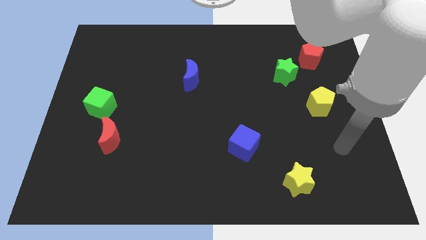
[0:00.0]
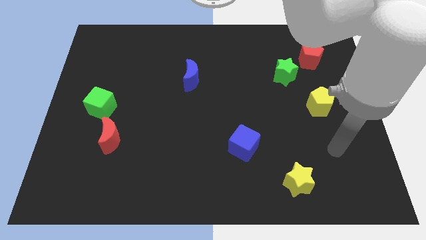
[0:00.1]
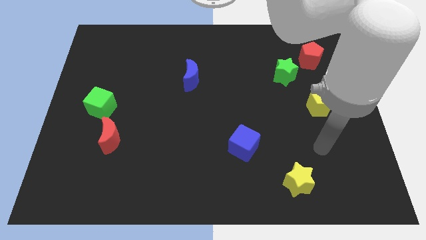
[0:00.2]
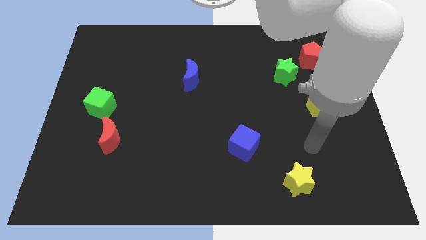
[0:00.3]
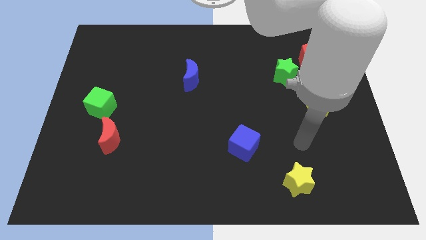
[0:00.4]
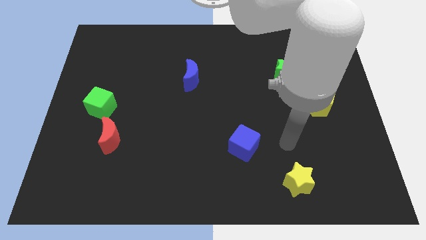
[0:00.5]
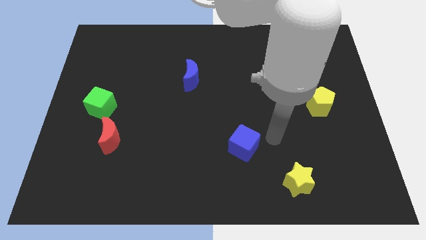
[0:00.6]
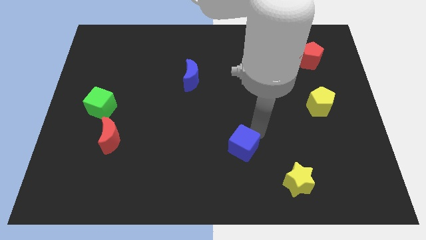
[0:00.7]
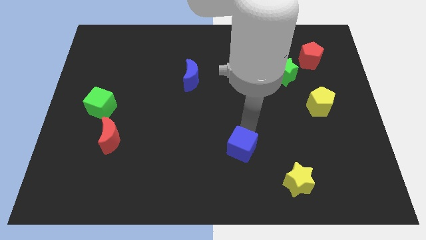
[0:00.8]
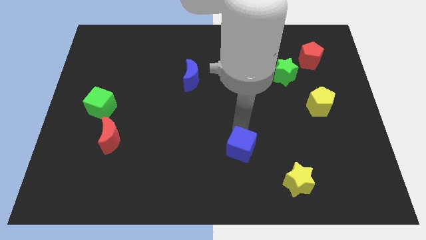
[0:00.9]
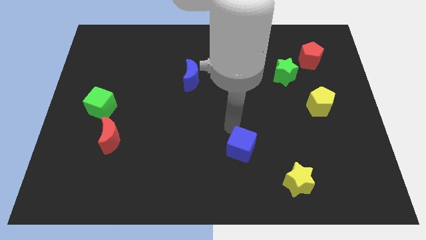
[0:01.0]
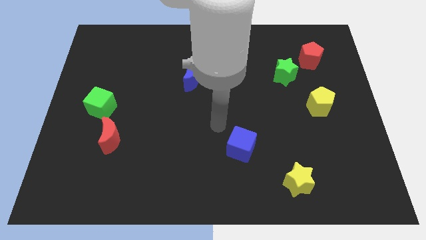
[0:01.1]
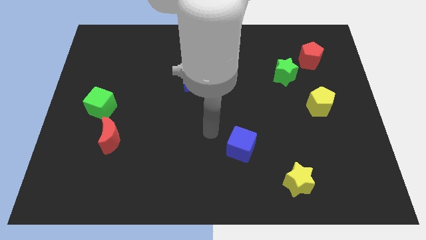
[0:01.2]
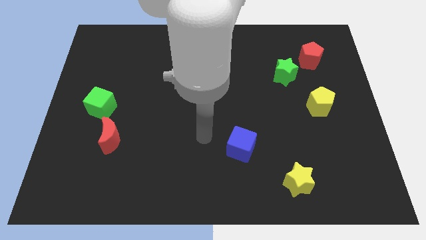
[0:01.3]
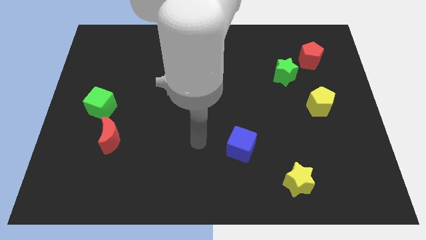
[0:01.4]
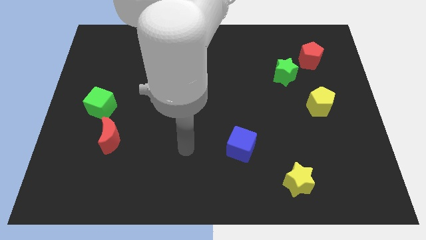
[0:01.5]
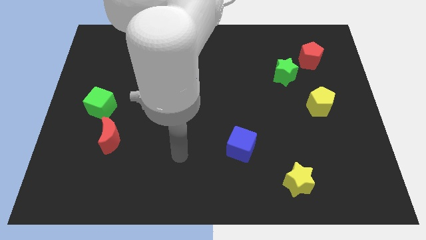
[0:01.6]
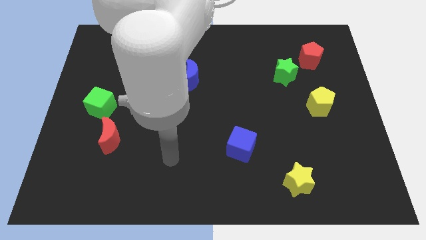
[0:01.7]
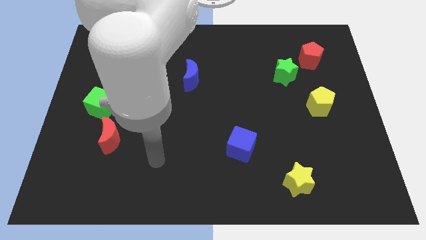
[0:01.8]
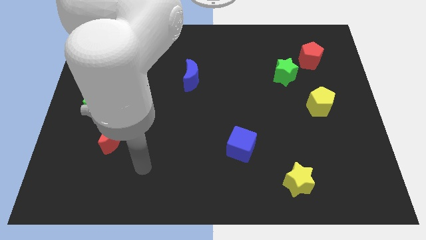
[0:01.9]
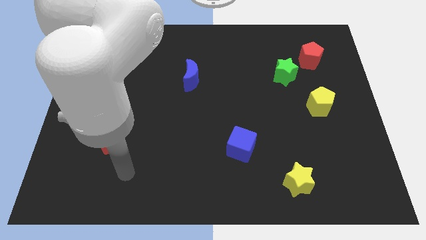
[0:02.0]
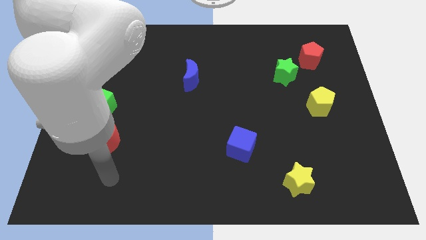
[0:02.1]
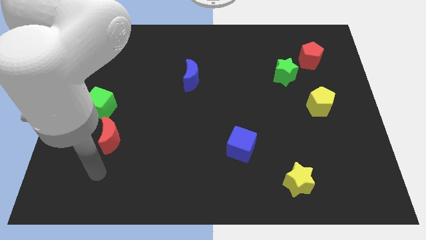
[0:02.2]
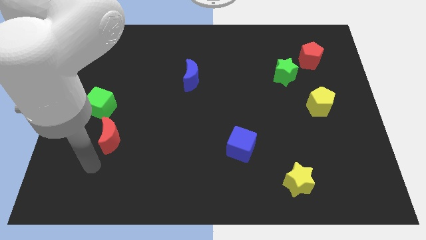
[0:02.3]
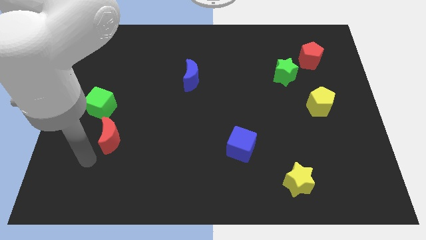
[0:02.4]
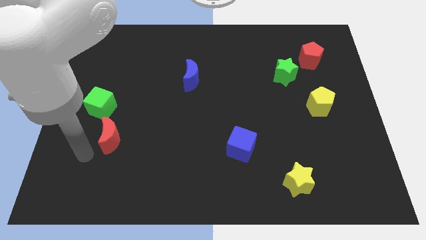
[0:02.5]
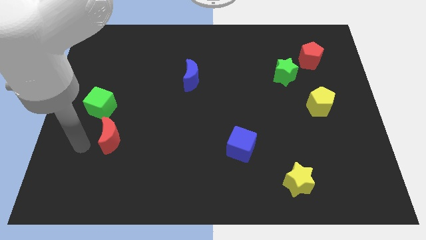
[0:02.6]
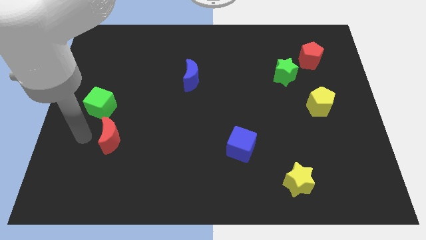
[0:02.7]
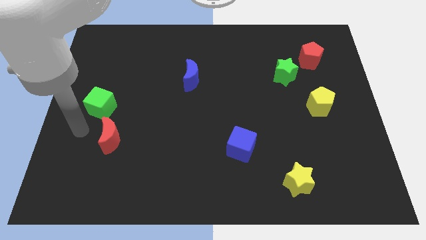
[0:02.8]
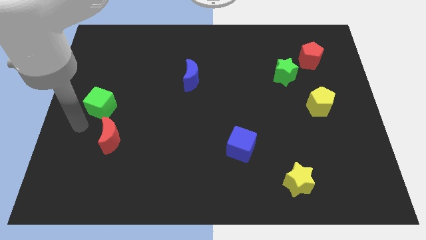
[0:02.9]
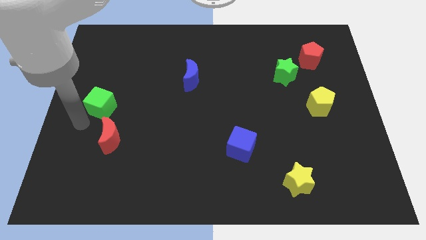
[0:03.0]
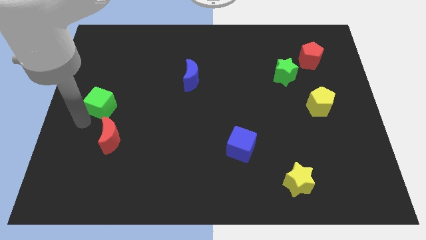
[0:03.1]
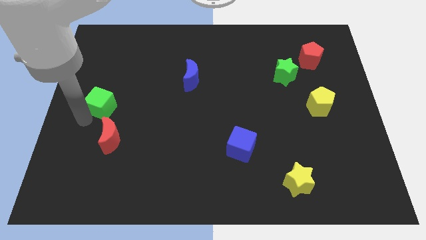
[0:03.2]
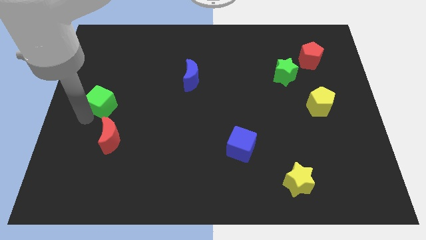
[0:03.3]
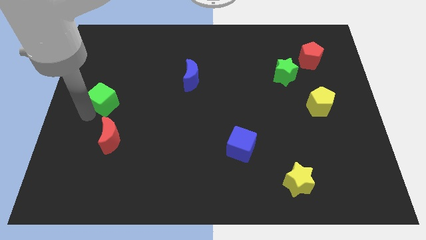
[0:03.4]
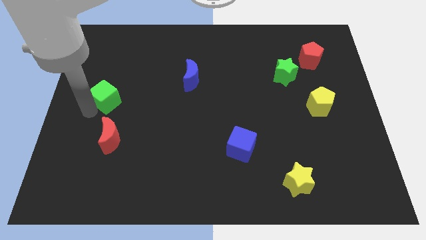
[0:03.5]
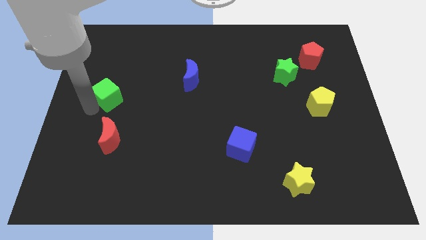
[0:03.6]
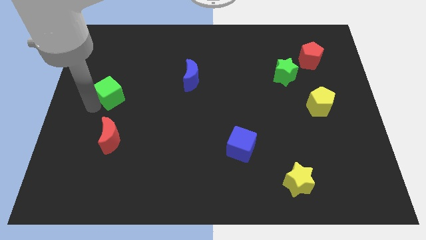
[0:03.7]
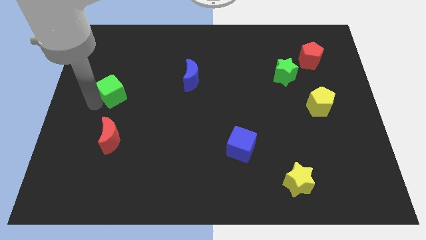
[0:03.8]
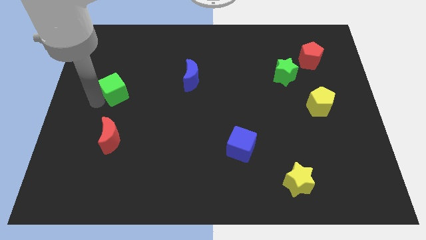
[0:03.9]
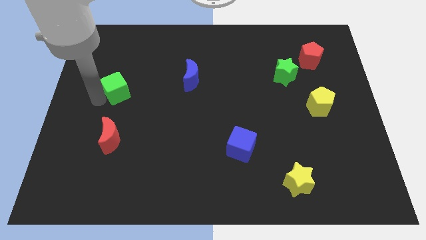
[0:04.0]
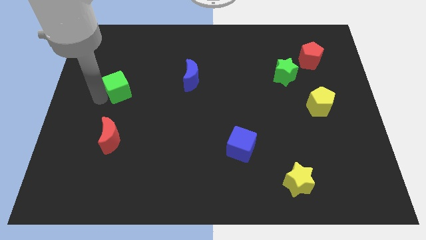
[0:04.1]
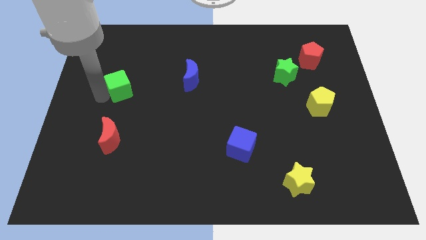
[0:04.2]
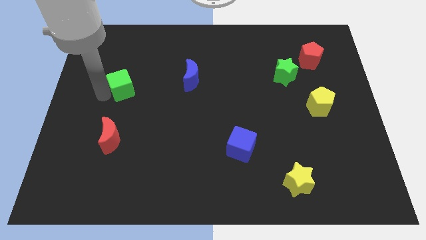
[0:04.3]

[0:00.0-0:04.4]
push the green cube upwards and to the right a little bit

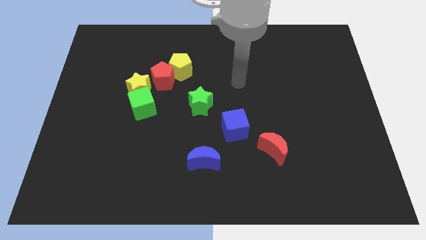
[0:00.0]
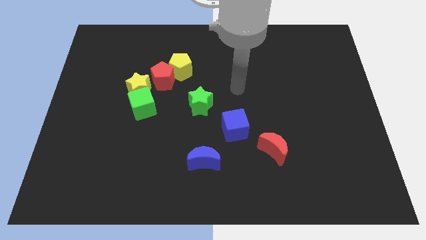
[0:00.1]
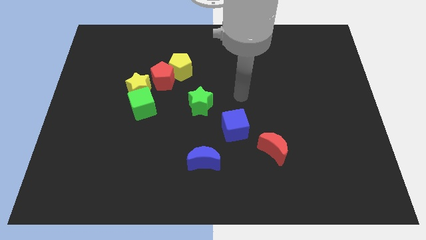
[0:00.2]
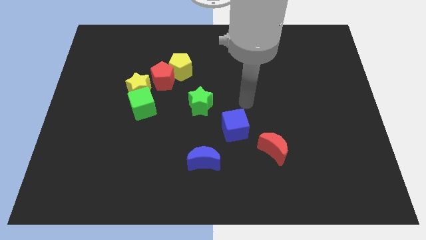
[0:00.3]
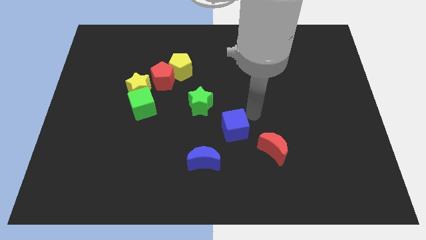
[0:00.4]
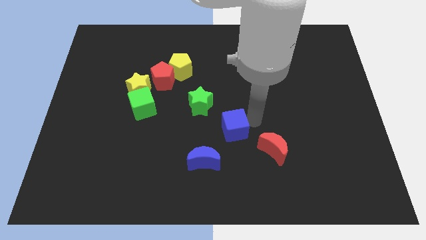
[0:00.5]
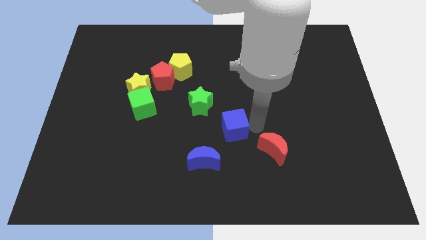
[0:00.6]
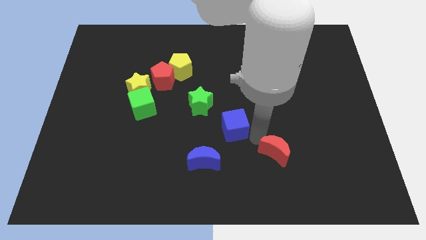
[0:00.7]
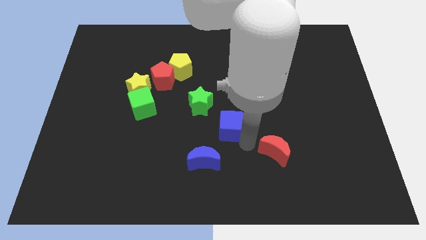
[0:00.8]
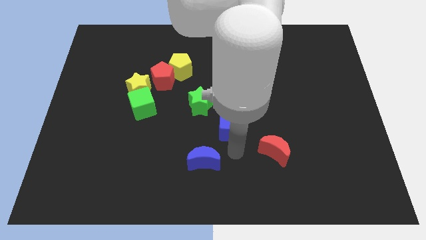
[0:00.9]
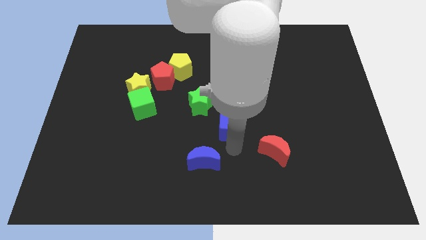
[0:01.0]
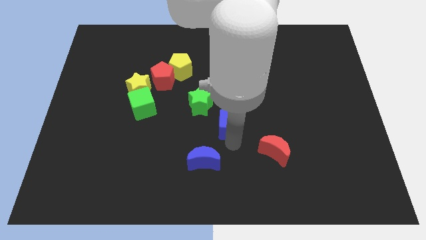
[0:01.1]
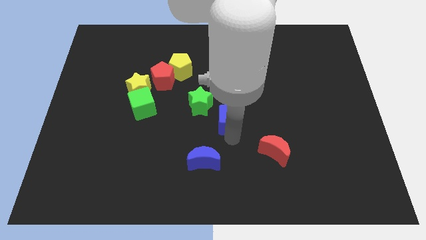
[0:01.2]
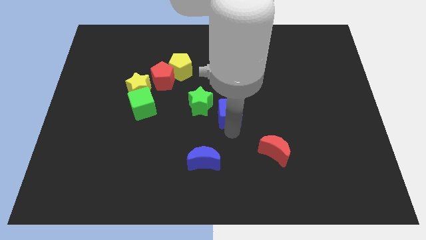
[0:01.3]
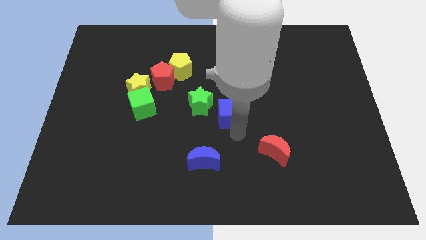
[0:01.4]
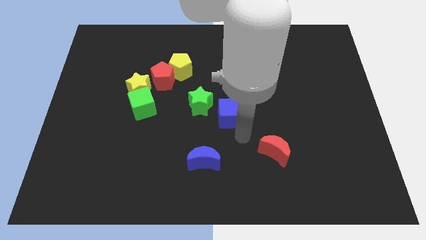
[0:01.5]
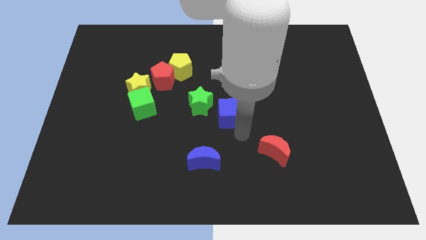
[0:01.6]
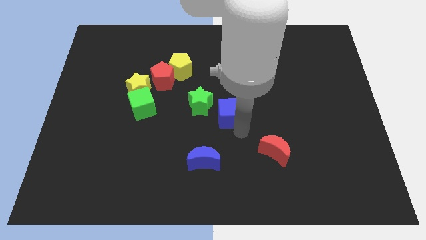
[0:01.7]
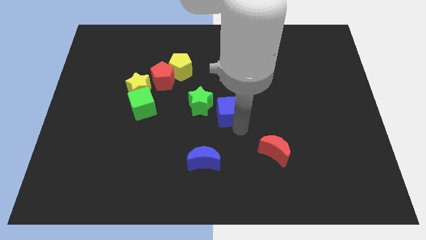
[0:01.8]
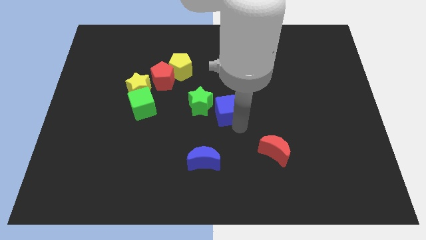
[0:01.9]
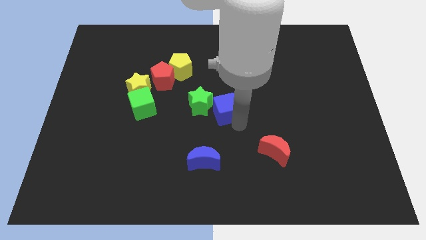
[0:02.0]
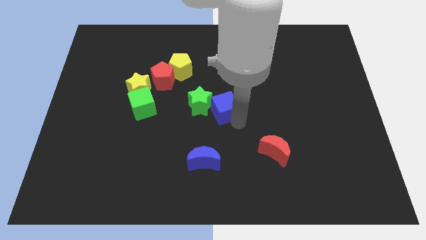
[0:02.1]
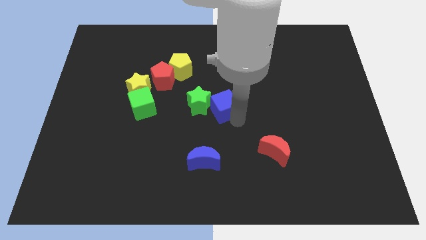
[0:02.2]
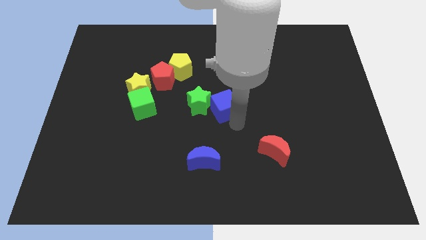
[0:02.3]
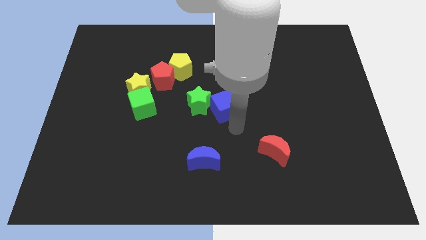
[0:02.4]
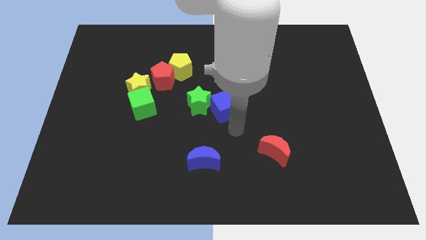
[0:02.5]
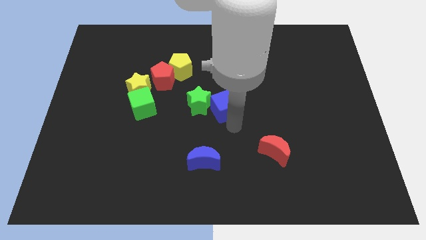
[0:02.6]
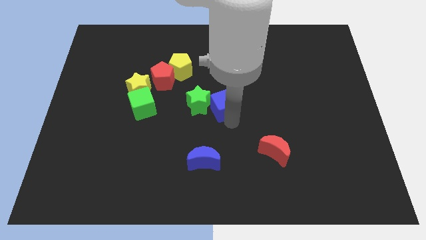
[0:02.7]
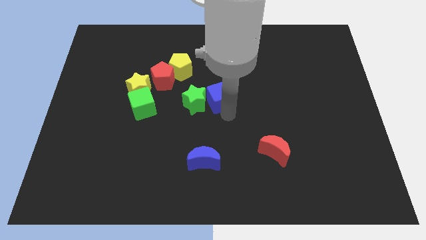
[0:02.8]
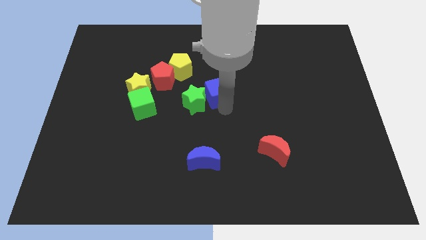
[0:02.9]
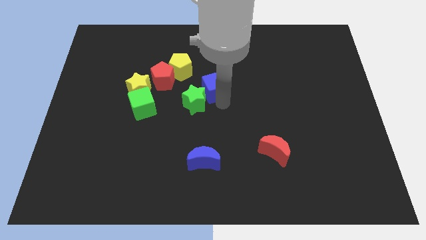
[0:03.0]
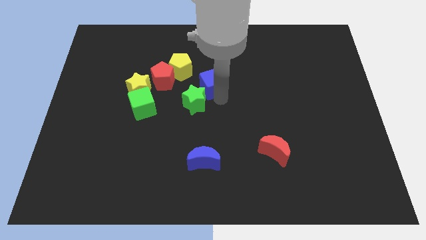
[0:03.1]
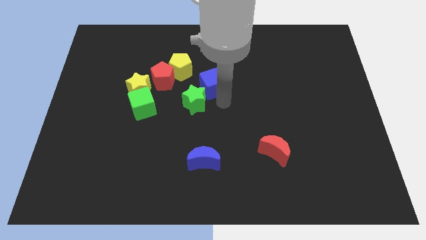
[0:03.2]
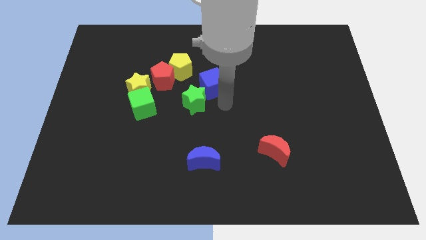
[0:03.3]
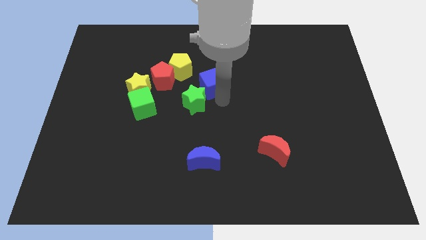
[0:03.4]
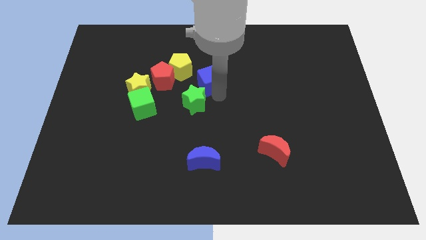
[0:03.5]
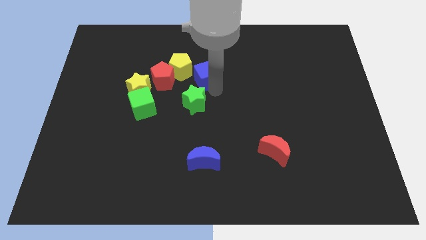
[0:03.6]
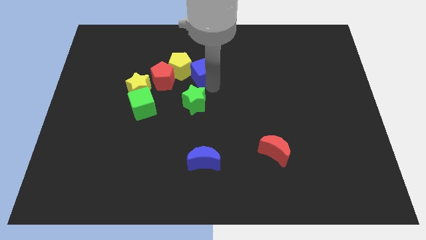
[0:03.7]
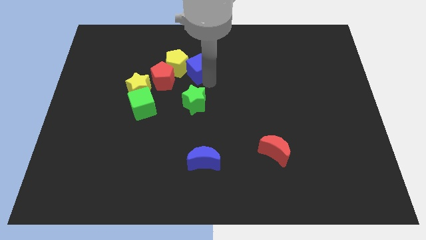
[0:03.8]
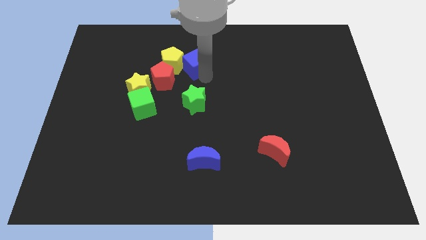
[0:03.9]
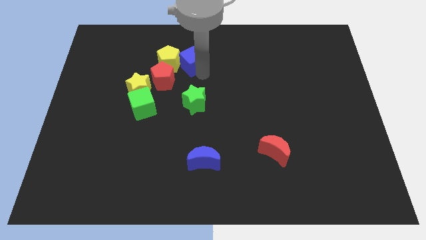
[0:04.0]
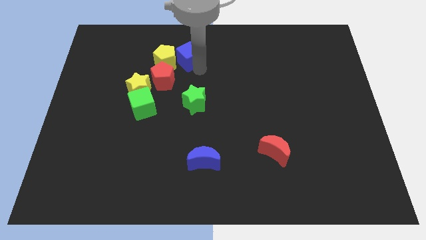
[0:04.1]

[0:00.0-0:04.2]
push the blue cube up and to the left diagonally
